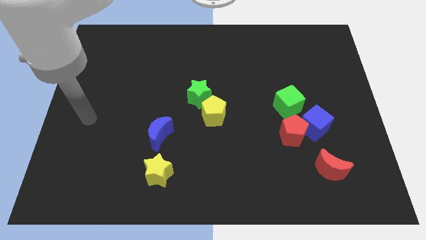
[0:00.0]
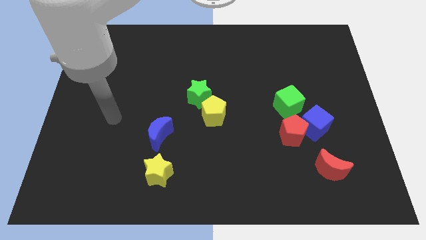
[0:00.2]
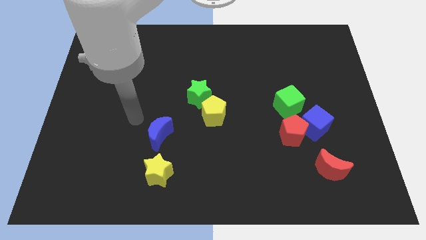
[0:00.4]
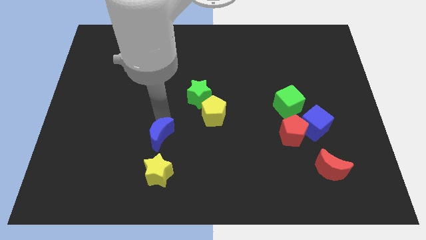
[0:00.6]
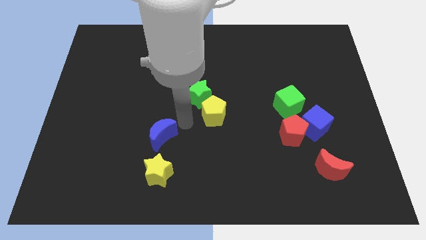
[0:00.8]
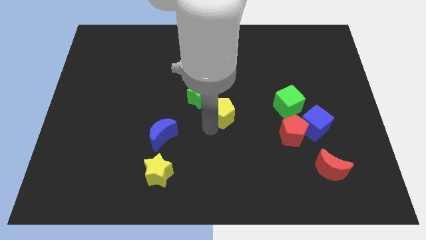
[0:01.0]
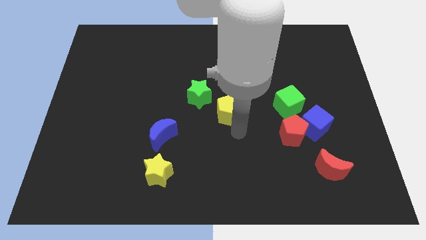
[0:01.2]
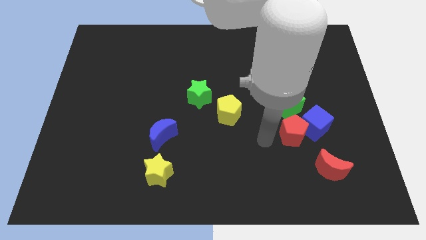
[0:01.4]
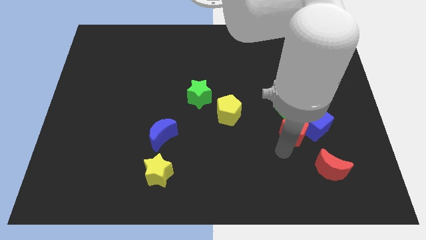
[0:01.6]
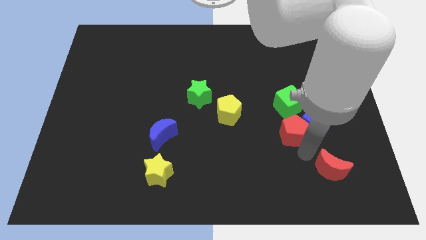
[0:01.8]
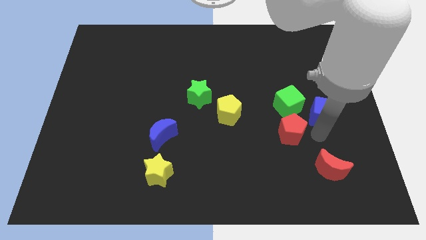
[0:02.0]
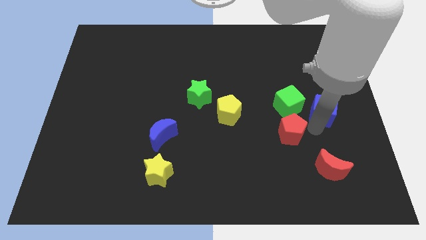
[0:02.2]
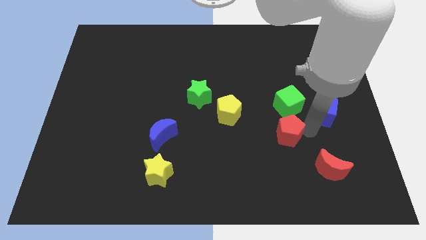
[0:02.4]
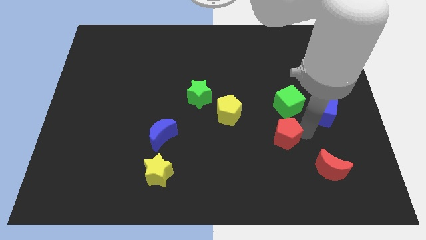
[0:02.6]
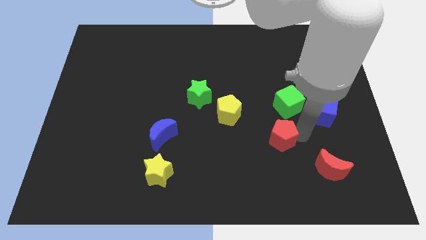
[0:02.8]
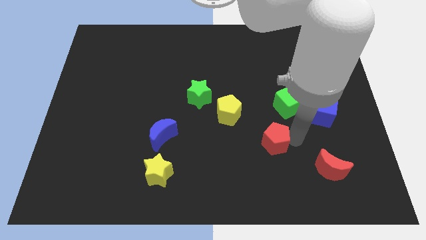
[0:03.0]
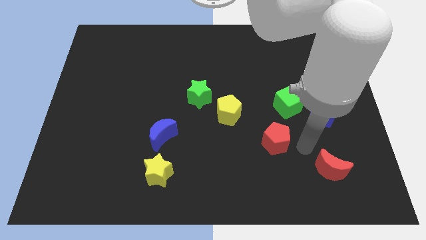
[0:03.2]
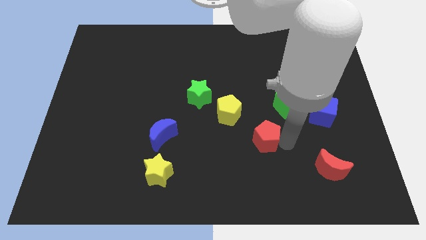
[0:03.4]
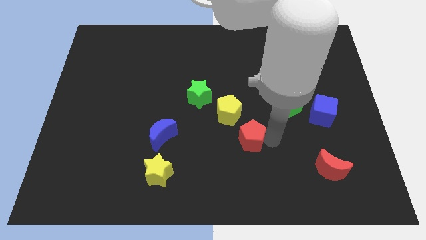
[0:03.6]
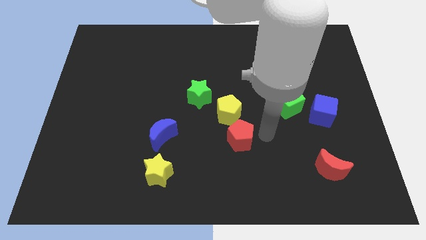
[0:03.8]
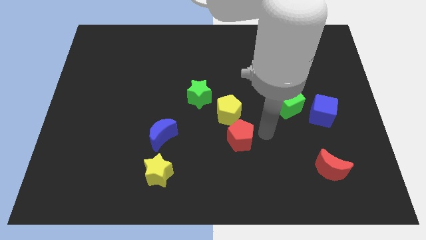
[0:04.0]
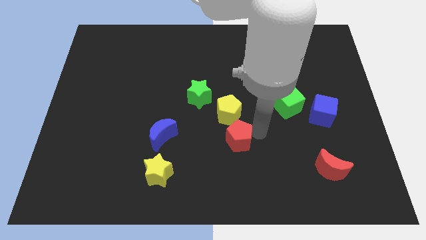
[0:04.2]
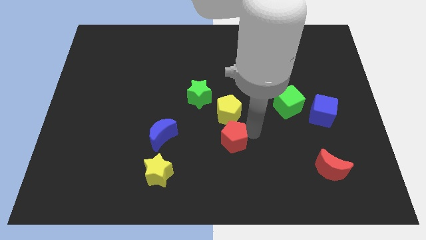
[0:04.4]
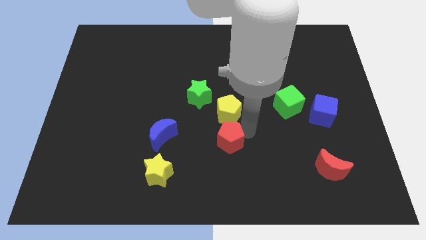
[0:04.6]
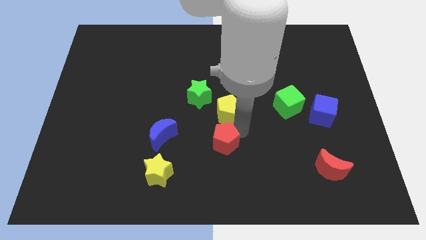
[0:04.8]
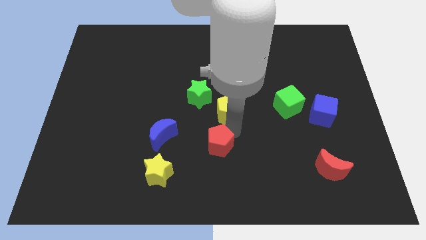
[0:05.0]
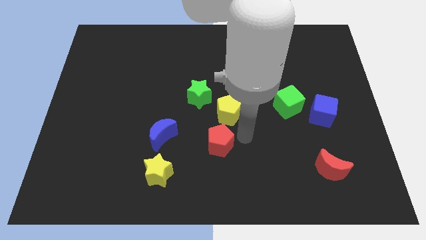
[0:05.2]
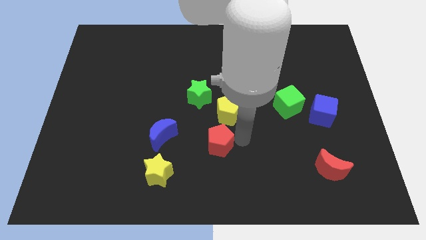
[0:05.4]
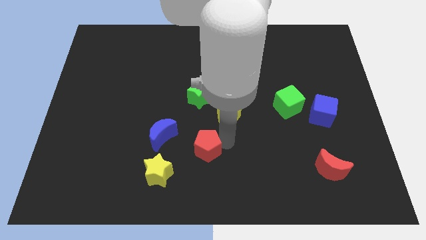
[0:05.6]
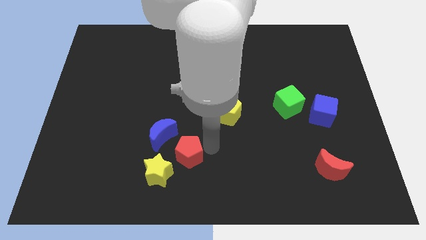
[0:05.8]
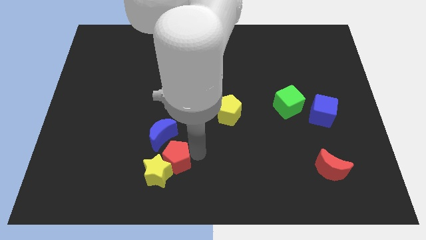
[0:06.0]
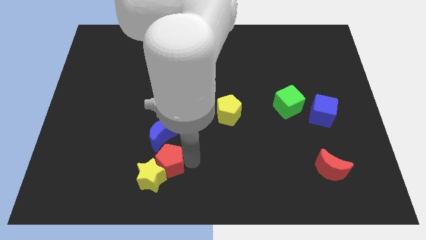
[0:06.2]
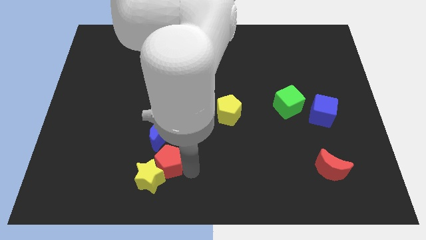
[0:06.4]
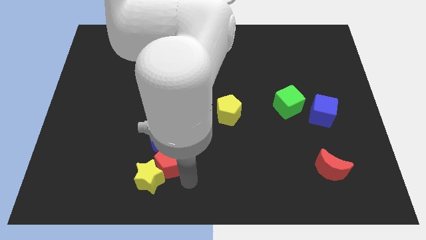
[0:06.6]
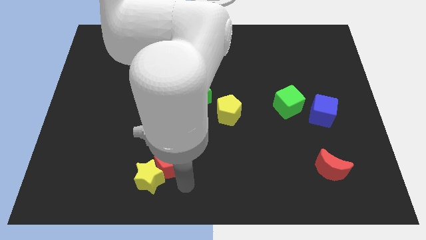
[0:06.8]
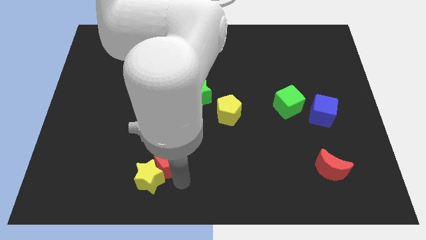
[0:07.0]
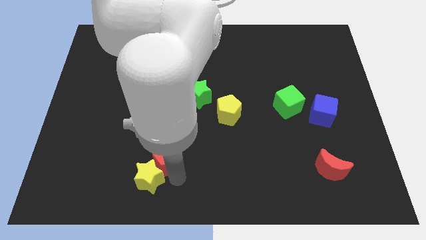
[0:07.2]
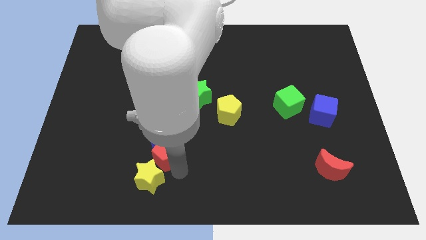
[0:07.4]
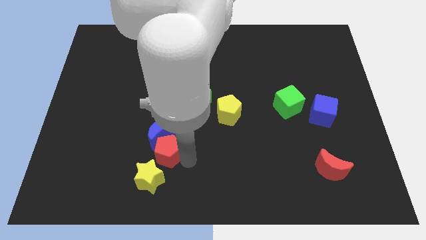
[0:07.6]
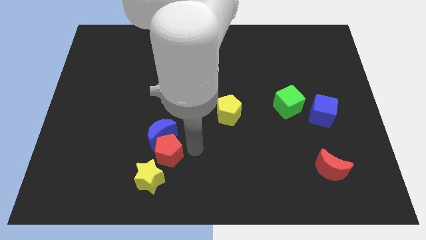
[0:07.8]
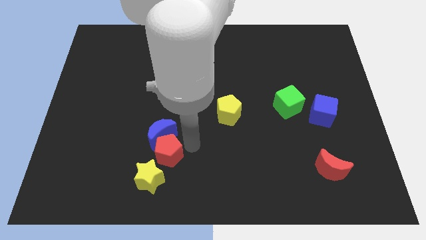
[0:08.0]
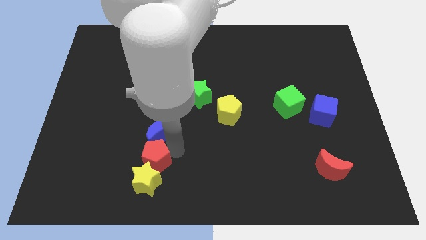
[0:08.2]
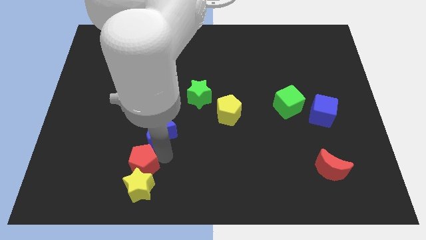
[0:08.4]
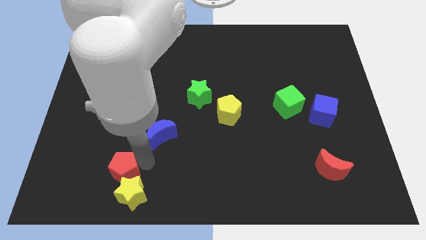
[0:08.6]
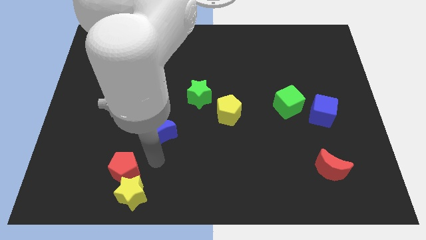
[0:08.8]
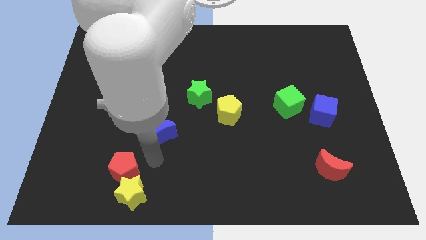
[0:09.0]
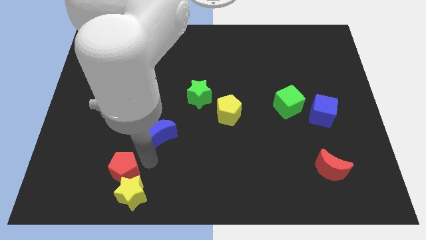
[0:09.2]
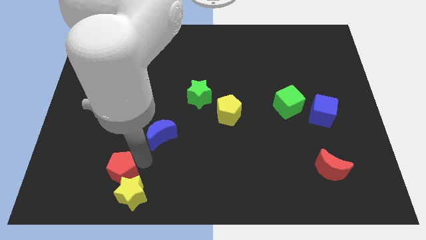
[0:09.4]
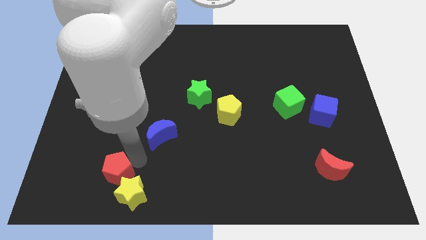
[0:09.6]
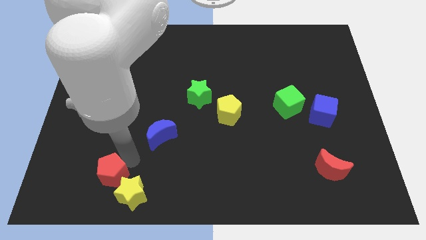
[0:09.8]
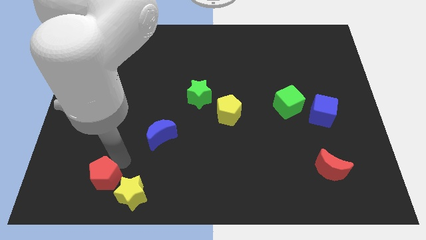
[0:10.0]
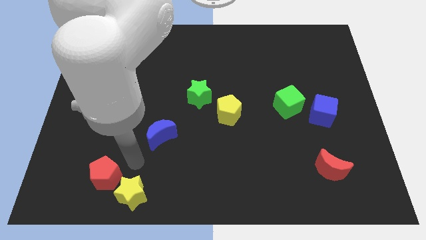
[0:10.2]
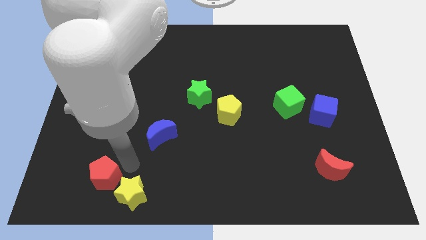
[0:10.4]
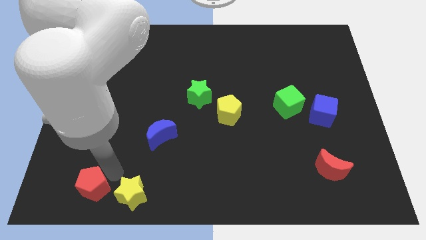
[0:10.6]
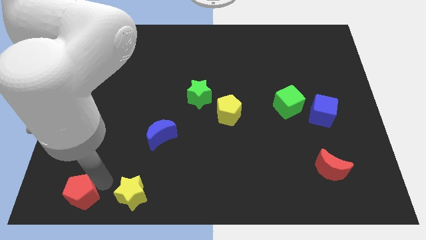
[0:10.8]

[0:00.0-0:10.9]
put the red pentagon to the bottom left corner

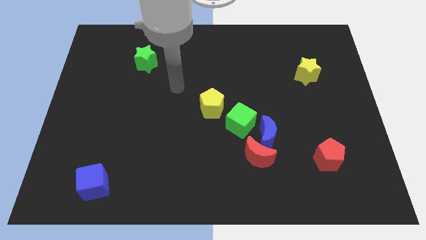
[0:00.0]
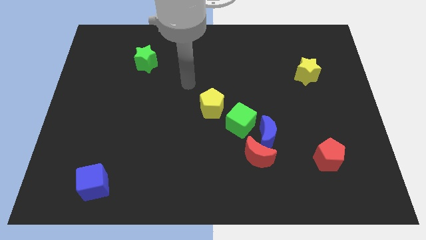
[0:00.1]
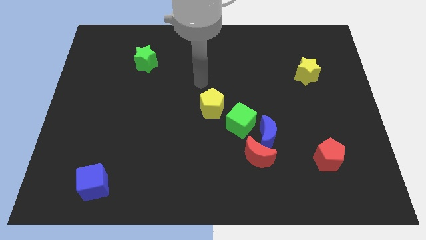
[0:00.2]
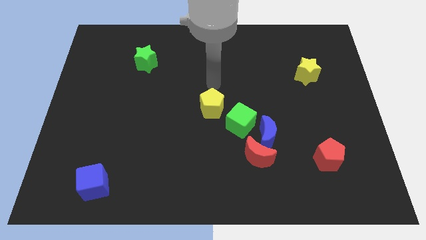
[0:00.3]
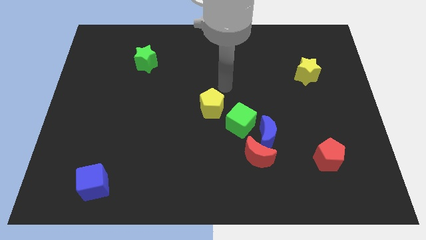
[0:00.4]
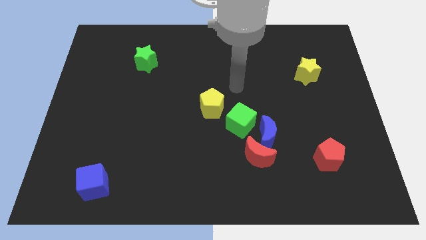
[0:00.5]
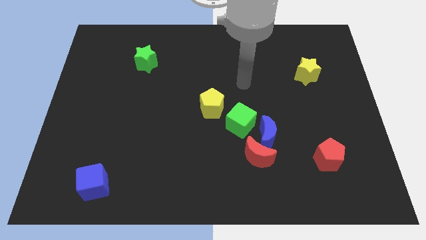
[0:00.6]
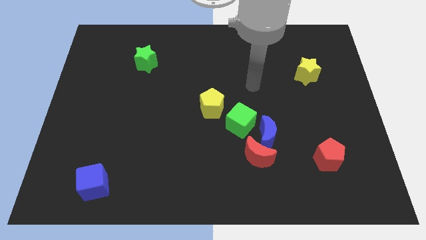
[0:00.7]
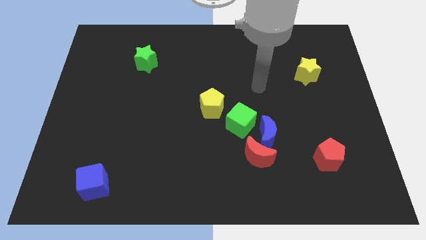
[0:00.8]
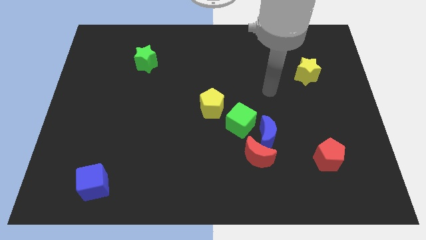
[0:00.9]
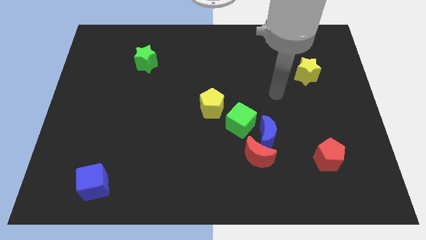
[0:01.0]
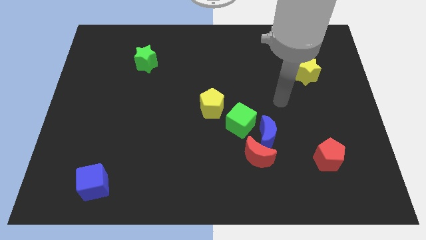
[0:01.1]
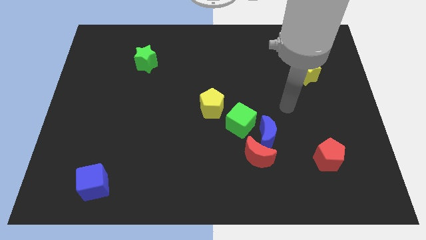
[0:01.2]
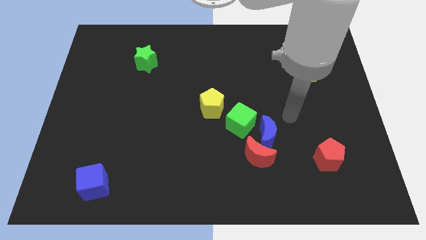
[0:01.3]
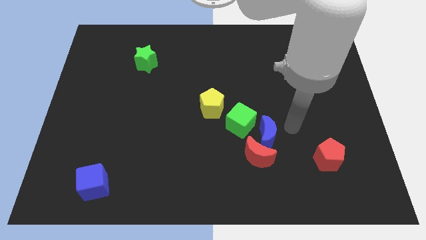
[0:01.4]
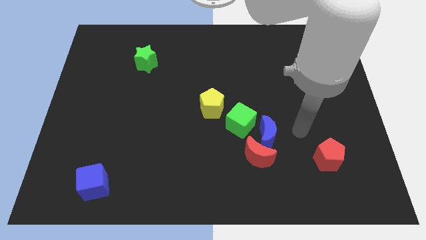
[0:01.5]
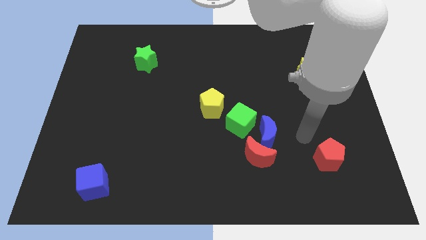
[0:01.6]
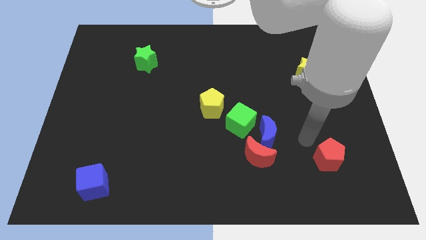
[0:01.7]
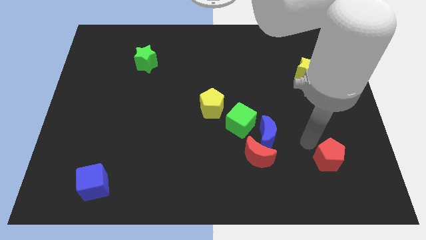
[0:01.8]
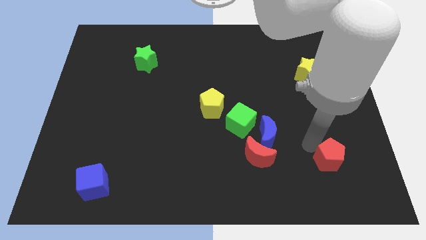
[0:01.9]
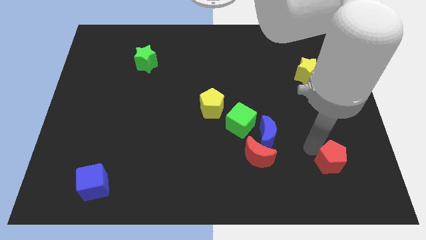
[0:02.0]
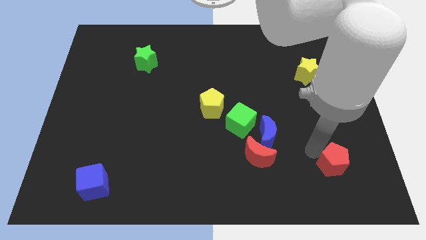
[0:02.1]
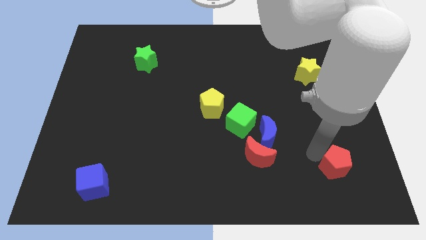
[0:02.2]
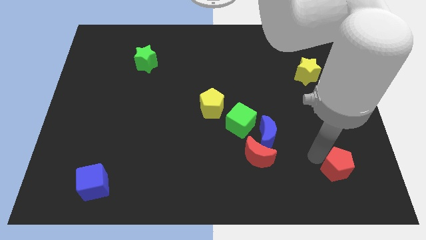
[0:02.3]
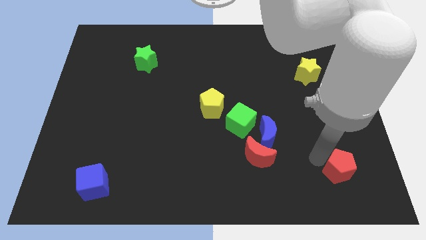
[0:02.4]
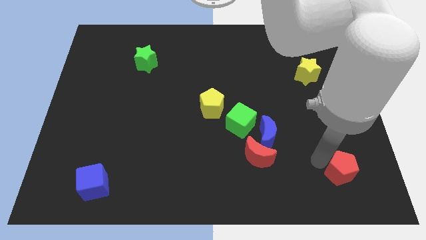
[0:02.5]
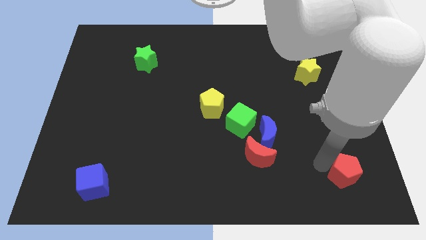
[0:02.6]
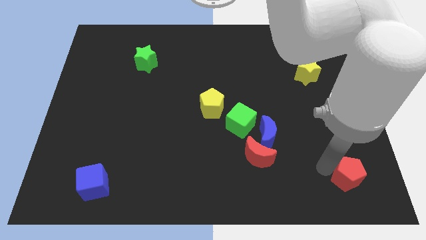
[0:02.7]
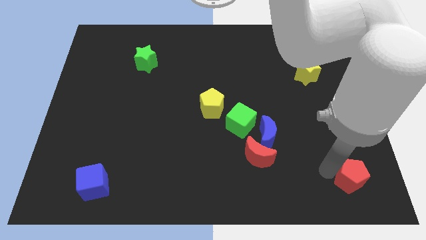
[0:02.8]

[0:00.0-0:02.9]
push the red pentagon to the bottom right
